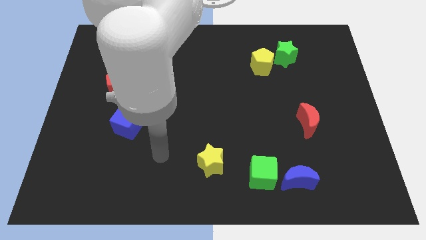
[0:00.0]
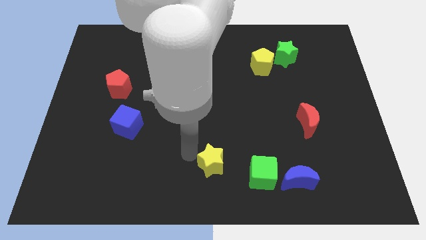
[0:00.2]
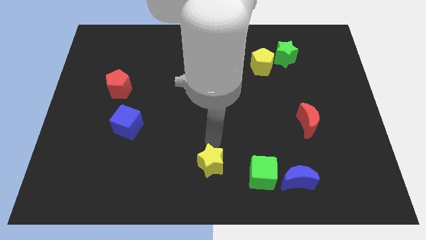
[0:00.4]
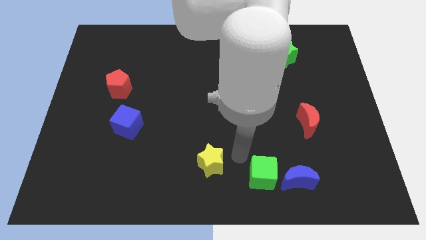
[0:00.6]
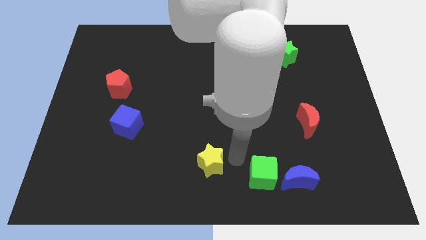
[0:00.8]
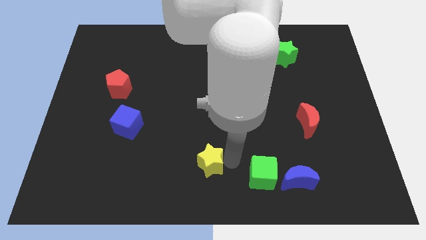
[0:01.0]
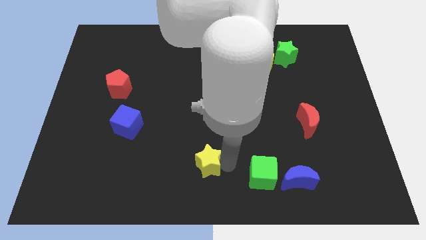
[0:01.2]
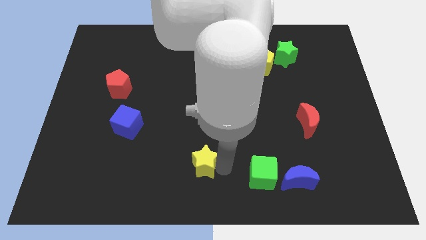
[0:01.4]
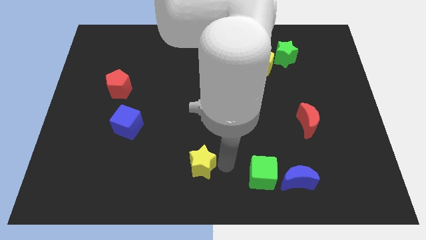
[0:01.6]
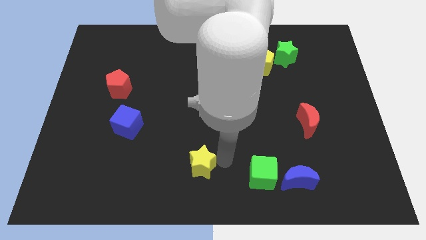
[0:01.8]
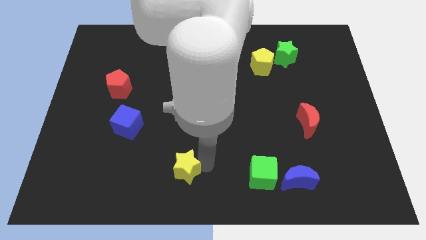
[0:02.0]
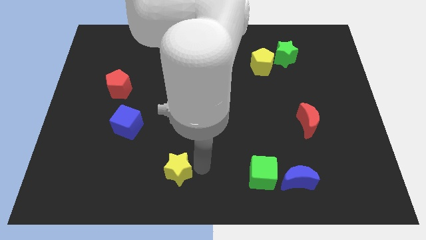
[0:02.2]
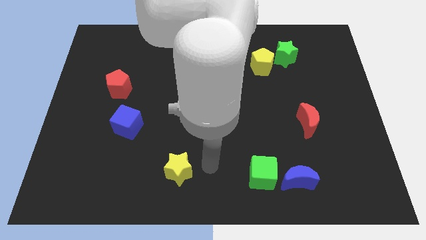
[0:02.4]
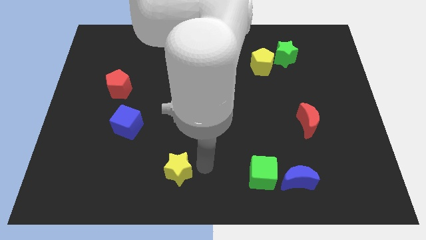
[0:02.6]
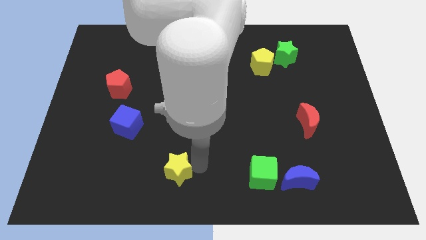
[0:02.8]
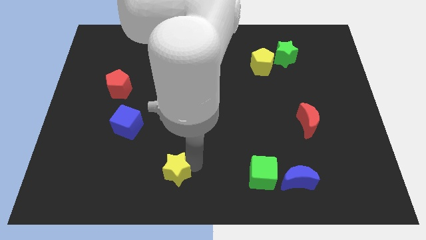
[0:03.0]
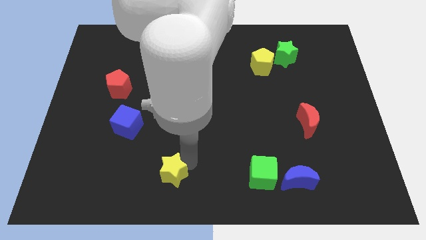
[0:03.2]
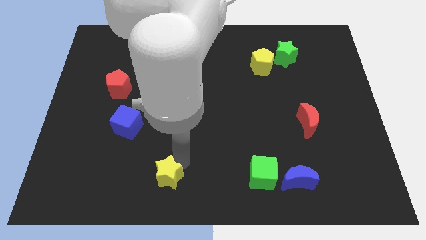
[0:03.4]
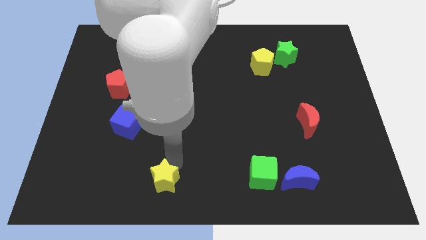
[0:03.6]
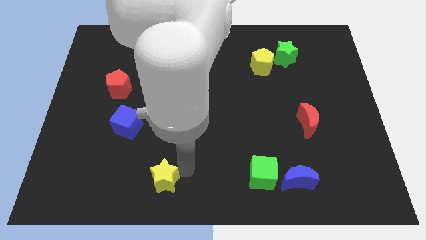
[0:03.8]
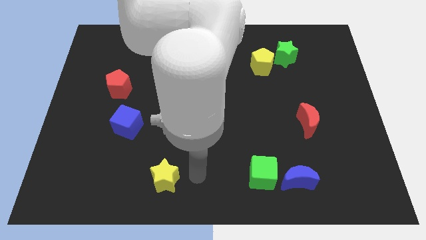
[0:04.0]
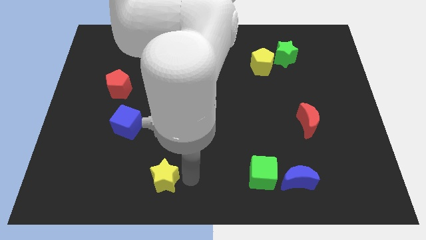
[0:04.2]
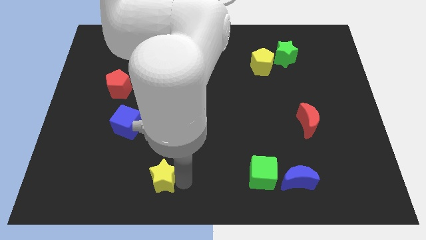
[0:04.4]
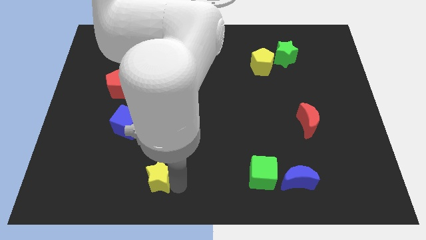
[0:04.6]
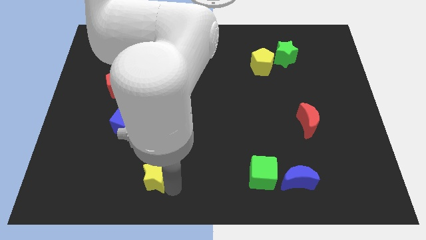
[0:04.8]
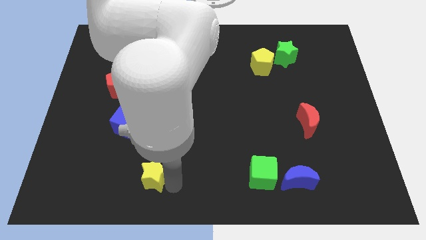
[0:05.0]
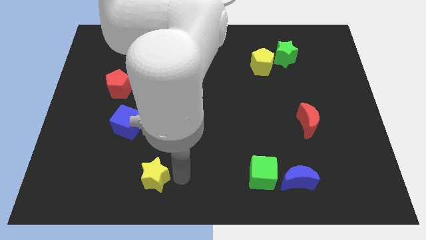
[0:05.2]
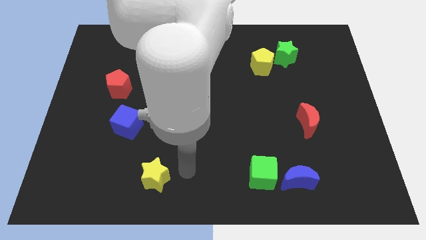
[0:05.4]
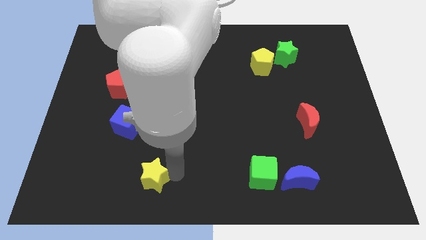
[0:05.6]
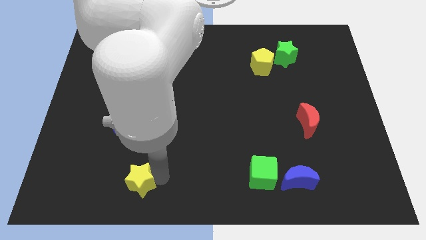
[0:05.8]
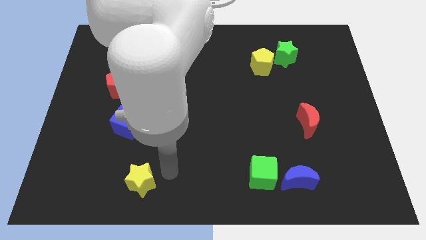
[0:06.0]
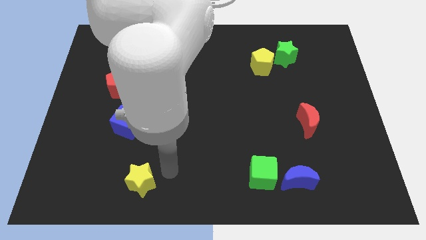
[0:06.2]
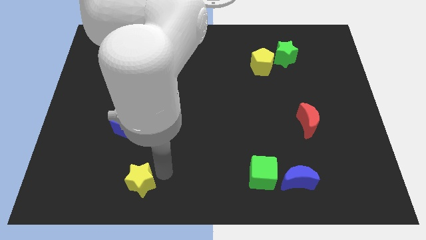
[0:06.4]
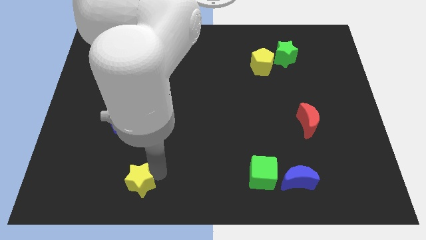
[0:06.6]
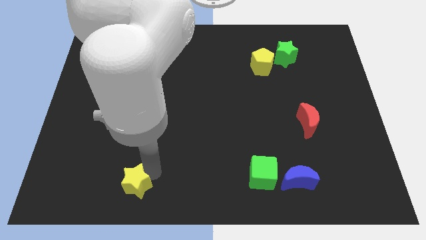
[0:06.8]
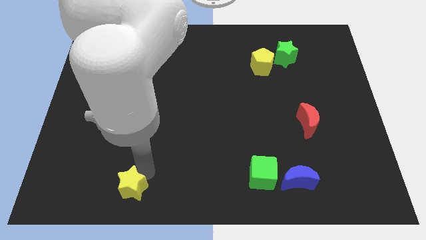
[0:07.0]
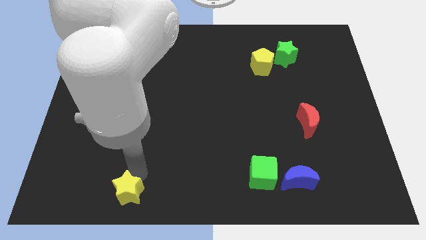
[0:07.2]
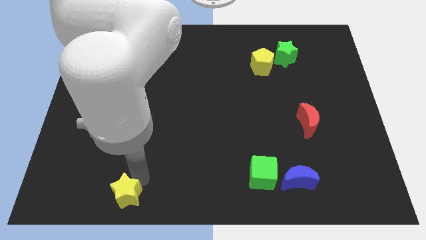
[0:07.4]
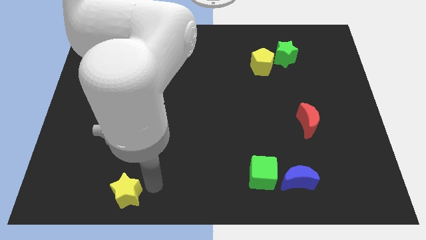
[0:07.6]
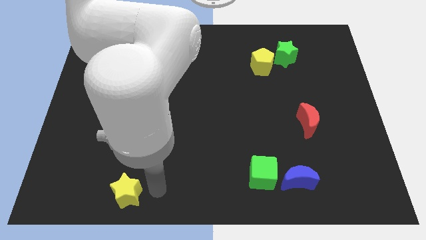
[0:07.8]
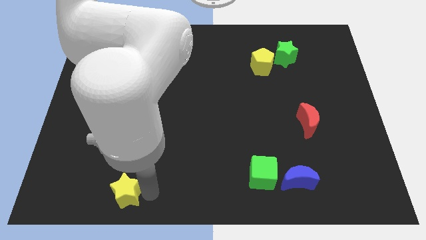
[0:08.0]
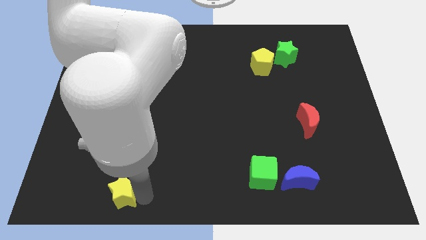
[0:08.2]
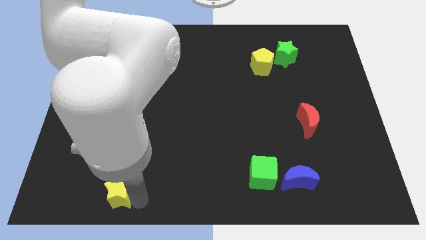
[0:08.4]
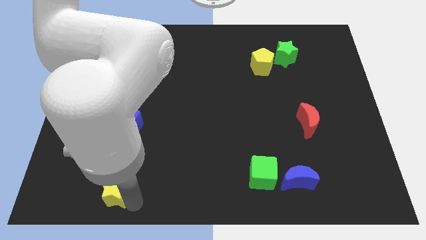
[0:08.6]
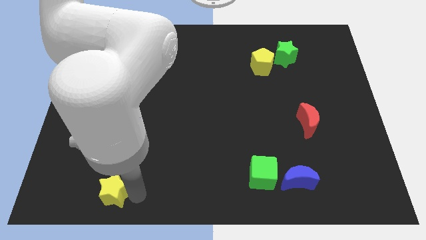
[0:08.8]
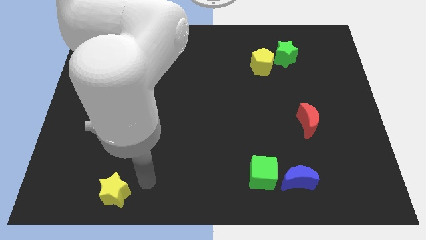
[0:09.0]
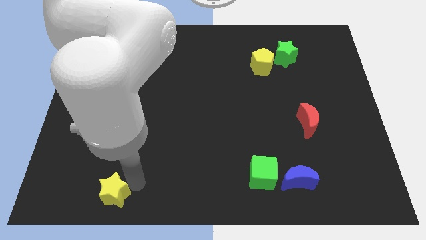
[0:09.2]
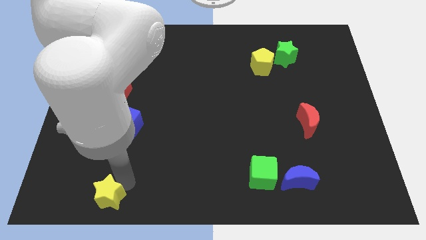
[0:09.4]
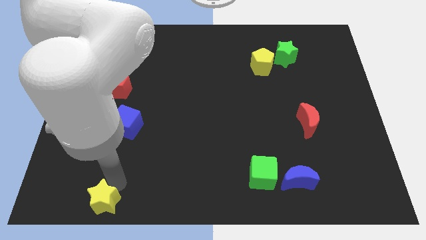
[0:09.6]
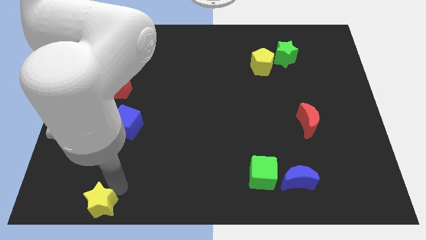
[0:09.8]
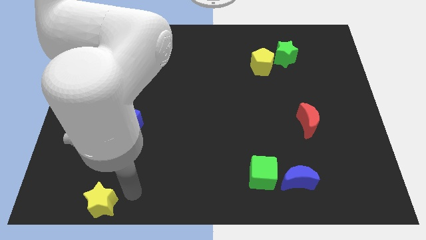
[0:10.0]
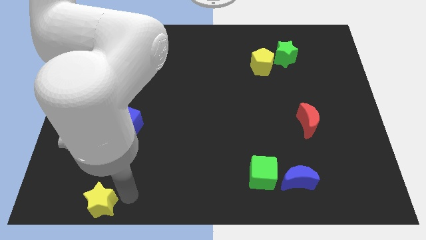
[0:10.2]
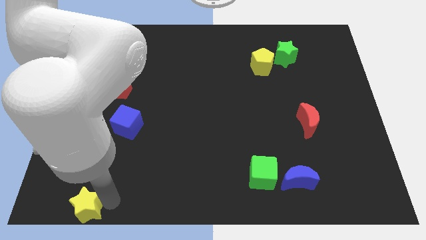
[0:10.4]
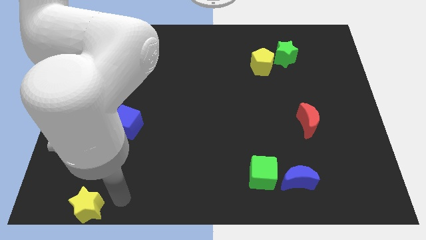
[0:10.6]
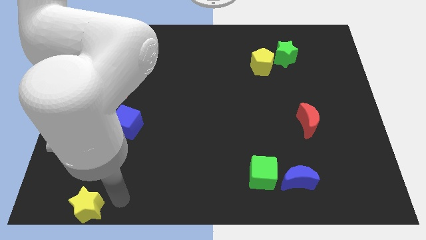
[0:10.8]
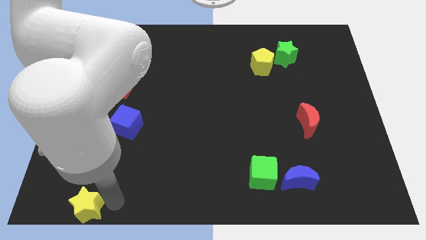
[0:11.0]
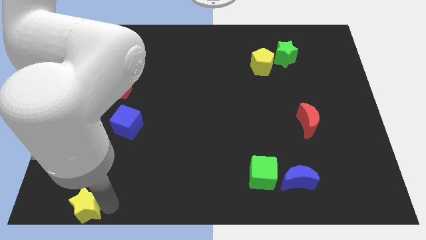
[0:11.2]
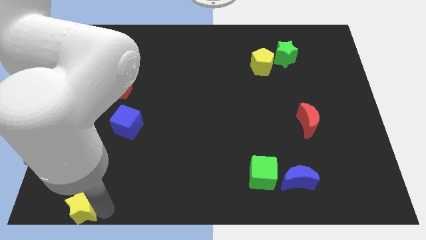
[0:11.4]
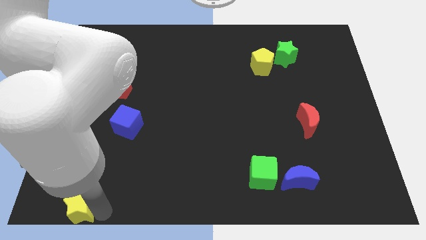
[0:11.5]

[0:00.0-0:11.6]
put the yellow star to the bottom left

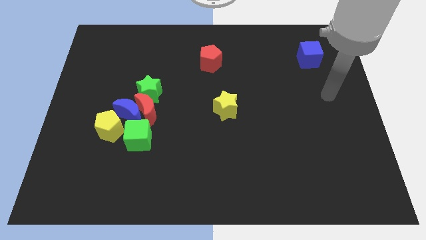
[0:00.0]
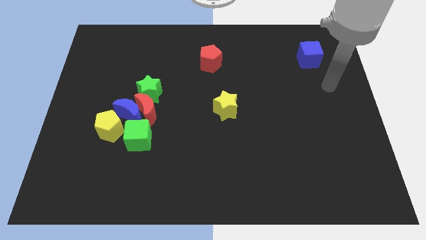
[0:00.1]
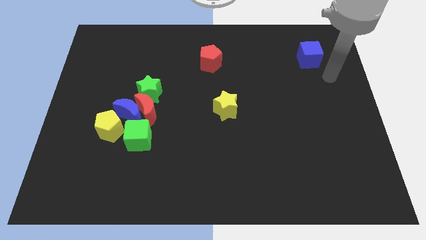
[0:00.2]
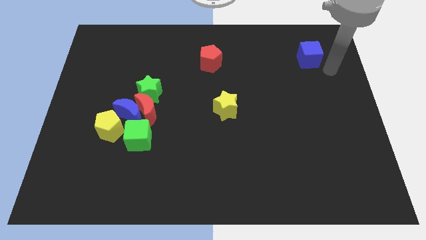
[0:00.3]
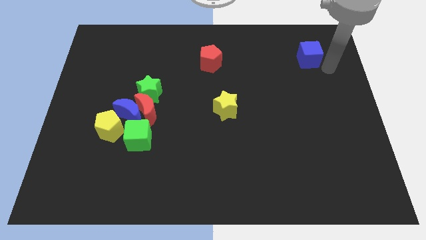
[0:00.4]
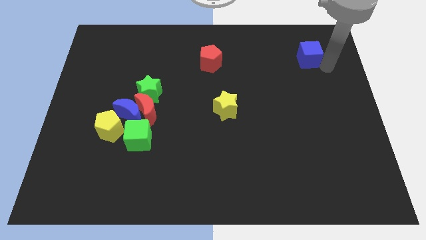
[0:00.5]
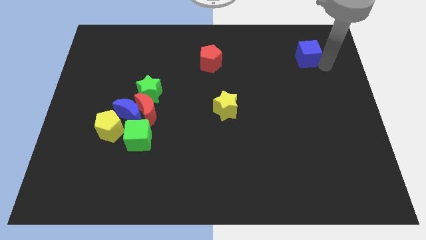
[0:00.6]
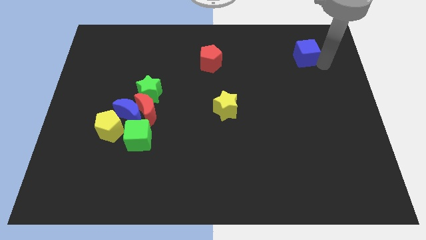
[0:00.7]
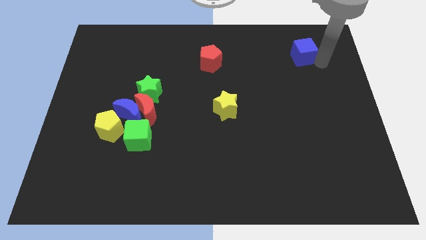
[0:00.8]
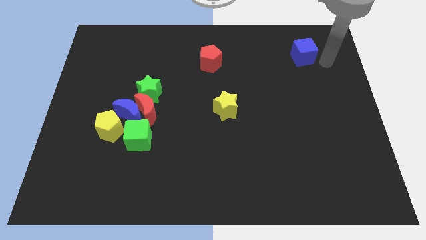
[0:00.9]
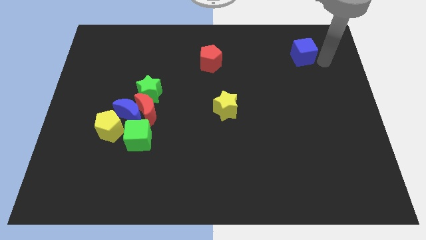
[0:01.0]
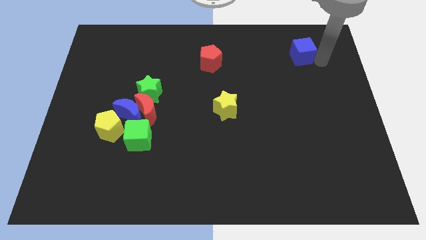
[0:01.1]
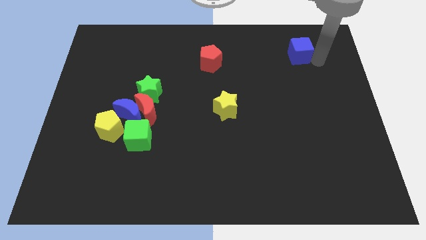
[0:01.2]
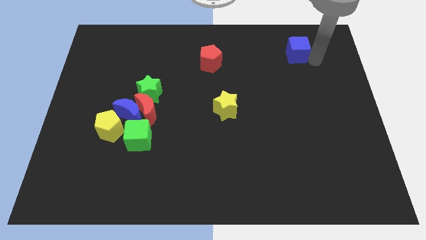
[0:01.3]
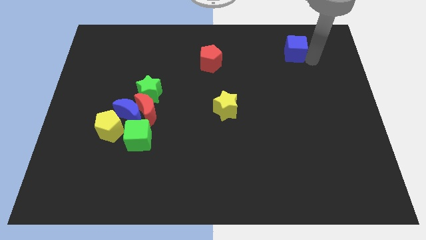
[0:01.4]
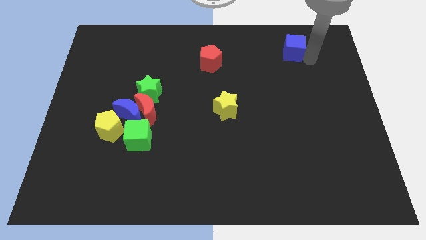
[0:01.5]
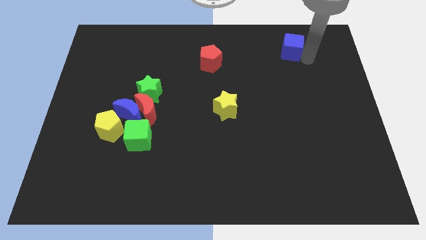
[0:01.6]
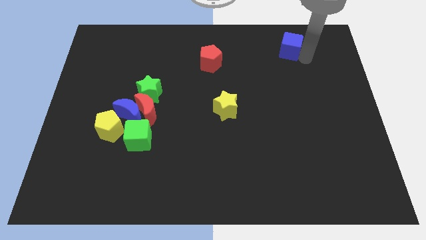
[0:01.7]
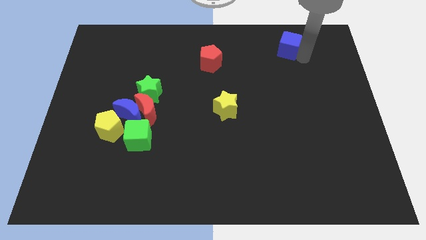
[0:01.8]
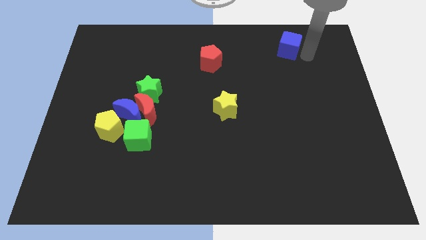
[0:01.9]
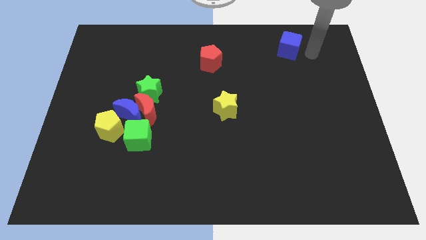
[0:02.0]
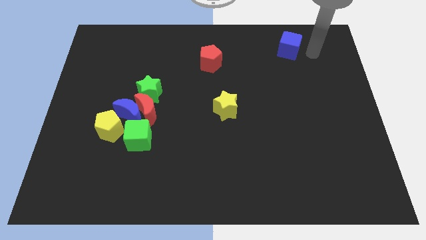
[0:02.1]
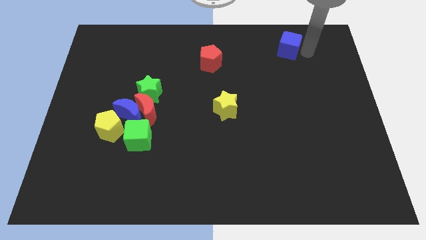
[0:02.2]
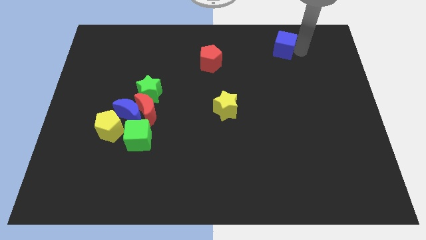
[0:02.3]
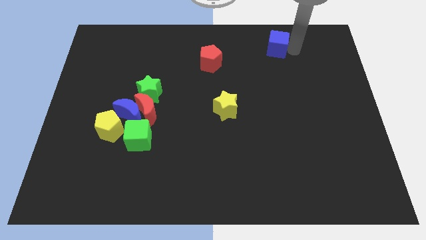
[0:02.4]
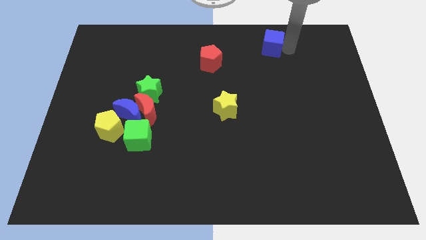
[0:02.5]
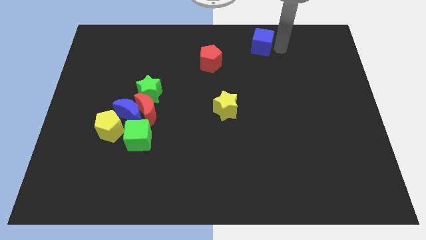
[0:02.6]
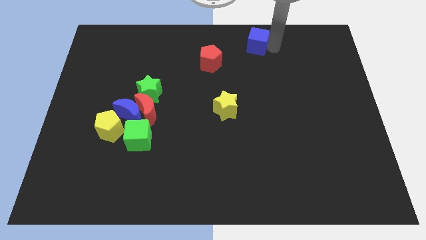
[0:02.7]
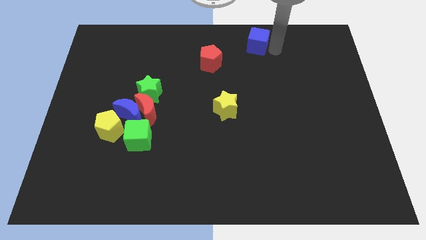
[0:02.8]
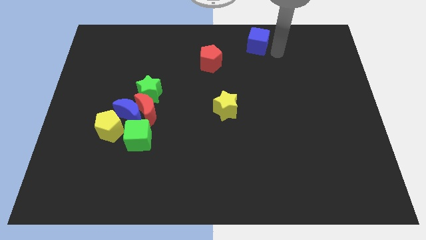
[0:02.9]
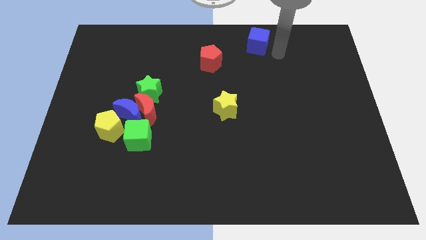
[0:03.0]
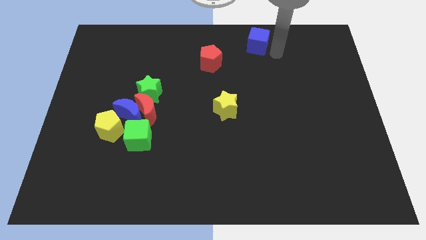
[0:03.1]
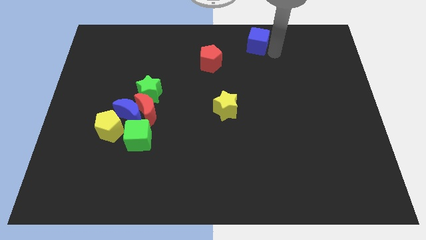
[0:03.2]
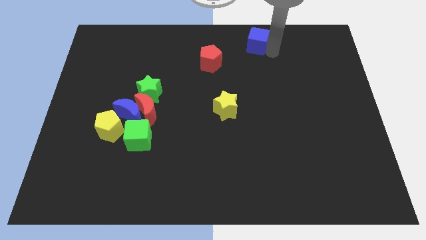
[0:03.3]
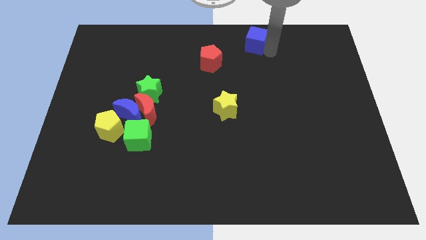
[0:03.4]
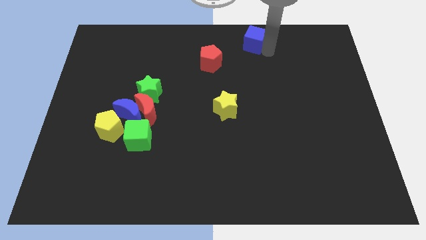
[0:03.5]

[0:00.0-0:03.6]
slide the blue cube to the towards your base
